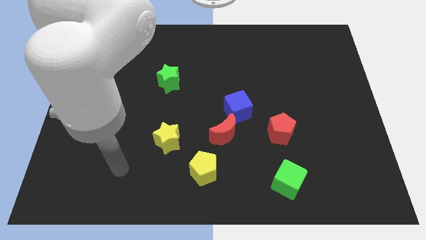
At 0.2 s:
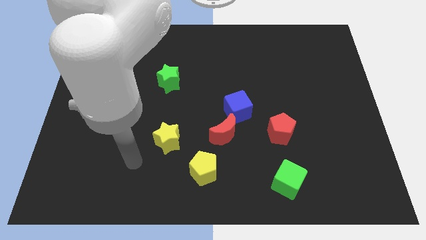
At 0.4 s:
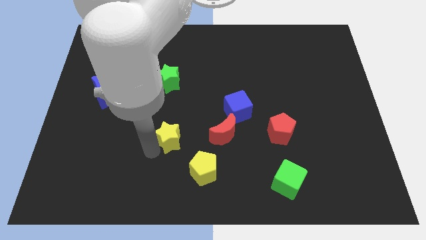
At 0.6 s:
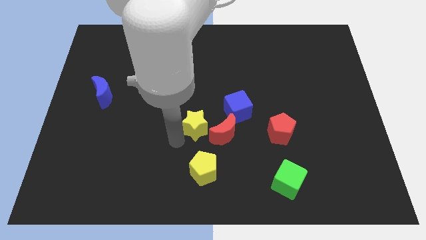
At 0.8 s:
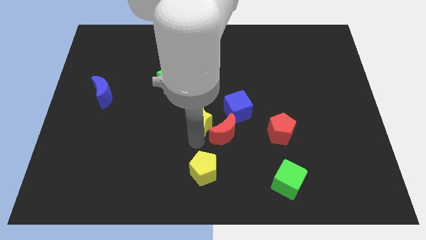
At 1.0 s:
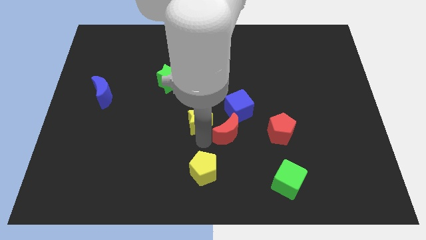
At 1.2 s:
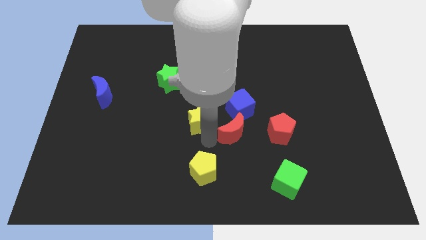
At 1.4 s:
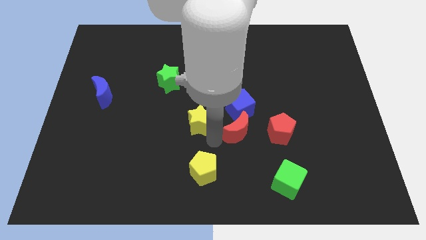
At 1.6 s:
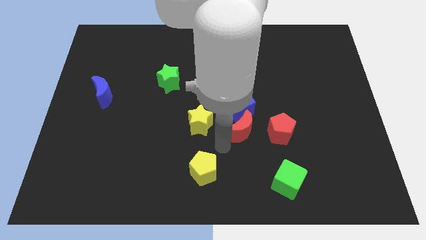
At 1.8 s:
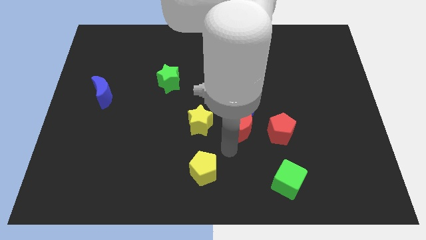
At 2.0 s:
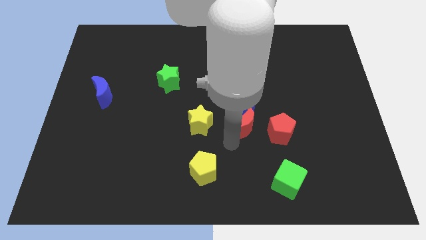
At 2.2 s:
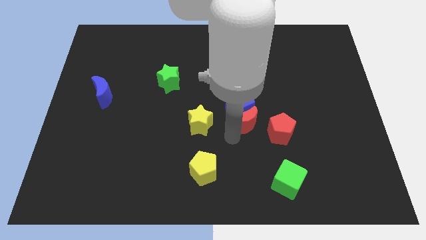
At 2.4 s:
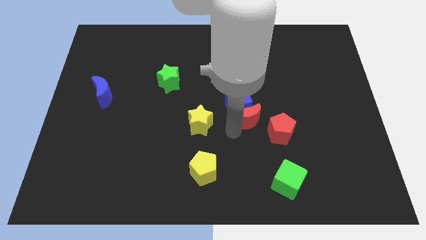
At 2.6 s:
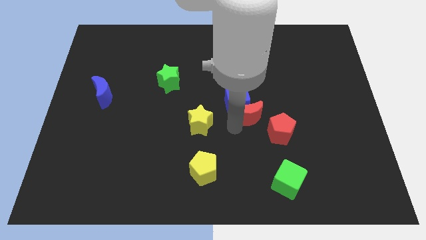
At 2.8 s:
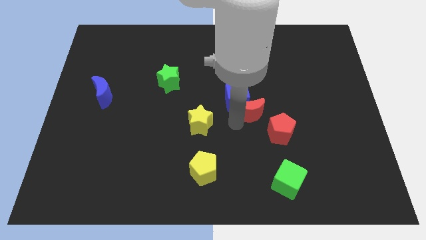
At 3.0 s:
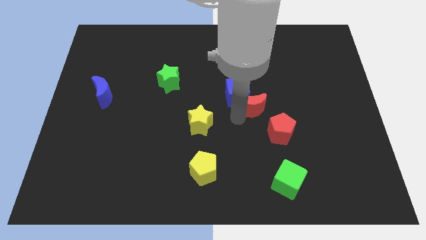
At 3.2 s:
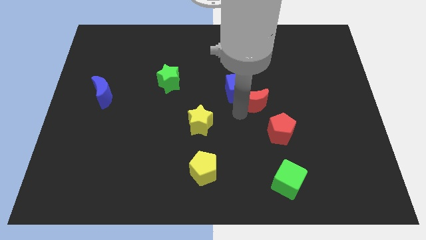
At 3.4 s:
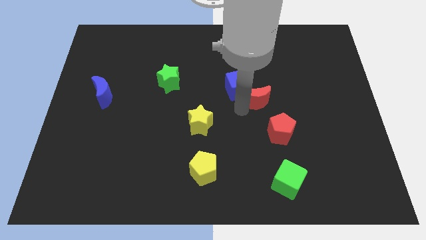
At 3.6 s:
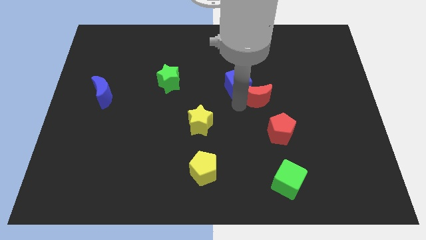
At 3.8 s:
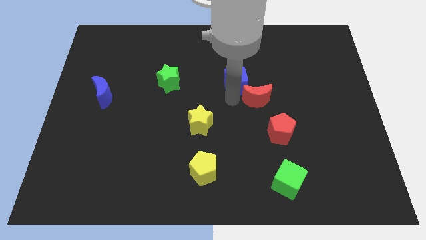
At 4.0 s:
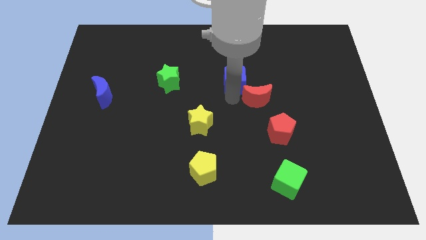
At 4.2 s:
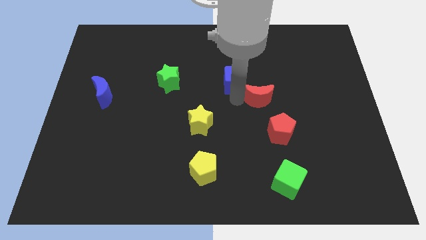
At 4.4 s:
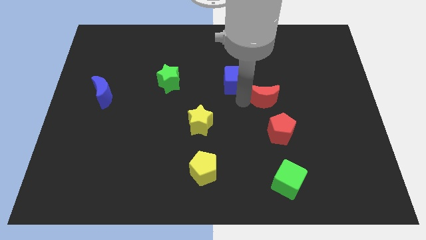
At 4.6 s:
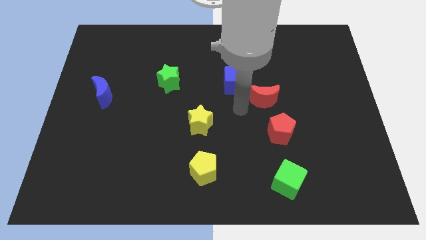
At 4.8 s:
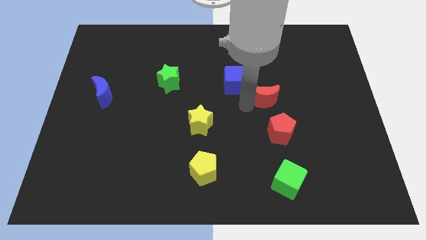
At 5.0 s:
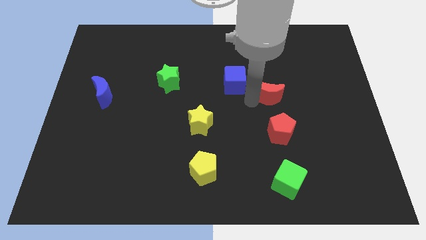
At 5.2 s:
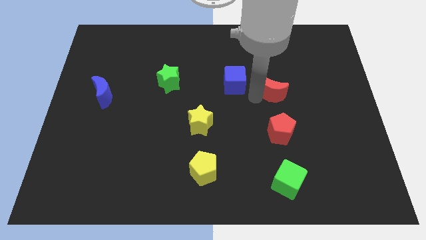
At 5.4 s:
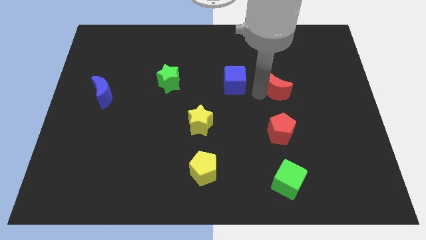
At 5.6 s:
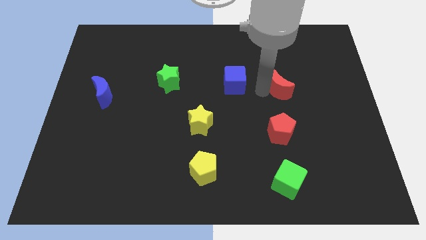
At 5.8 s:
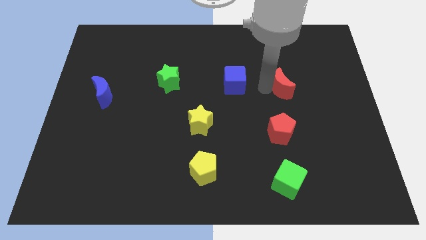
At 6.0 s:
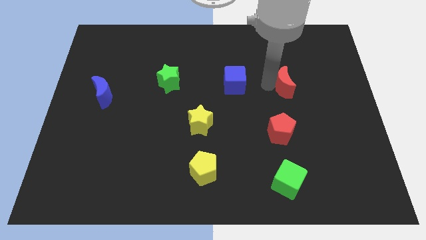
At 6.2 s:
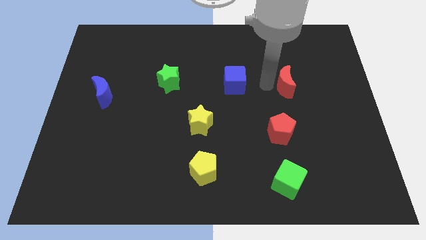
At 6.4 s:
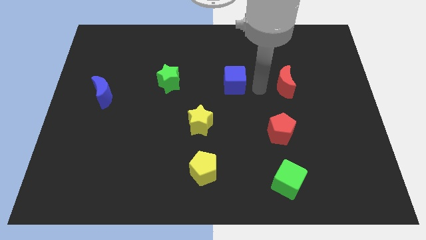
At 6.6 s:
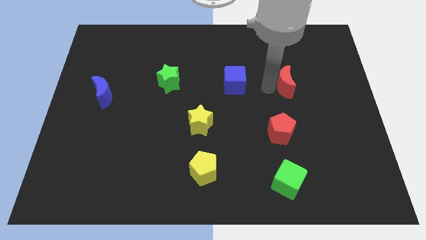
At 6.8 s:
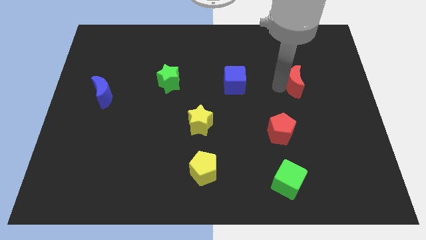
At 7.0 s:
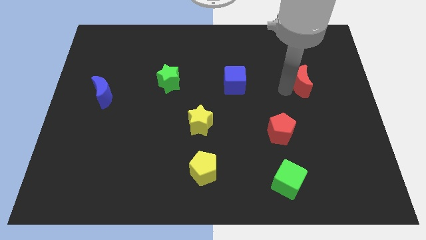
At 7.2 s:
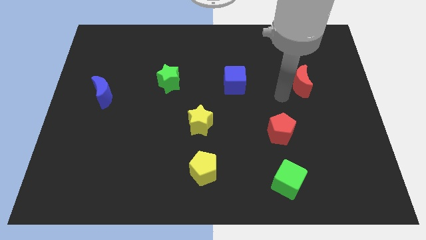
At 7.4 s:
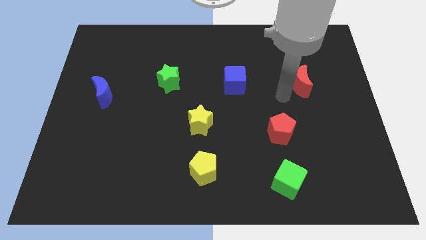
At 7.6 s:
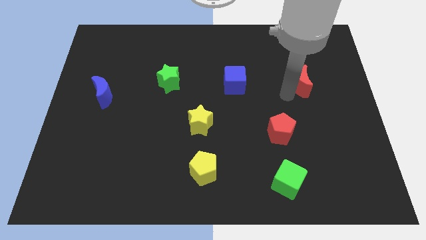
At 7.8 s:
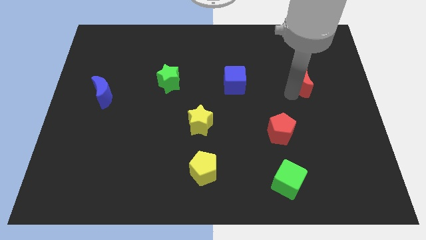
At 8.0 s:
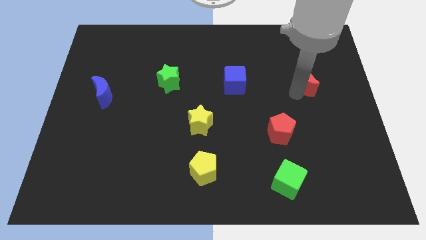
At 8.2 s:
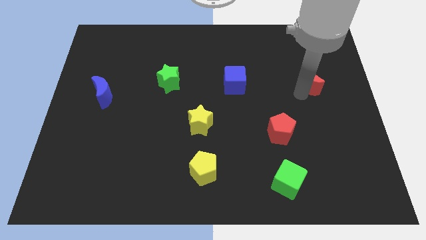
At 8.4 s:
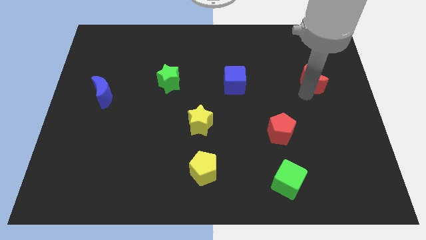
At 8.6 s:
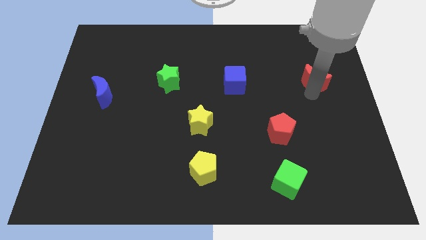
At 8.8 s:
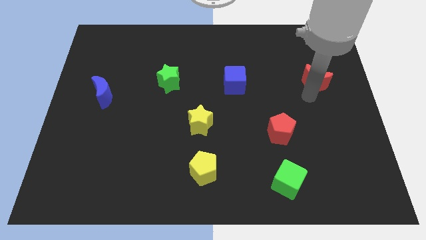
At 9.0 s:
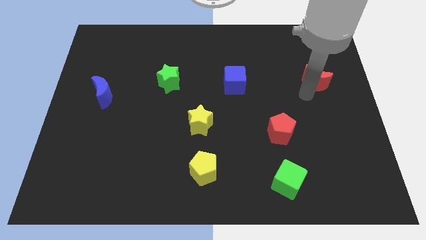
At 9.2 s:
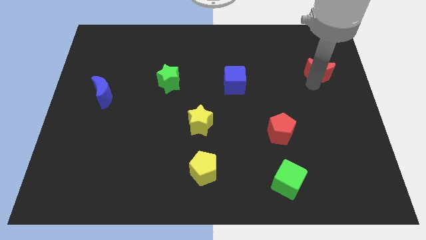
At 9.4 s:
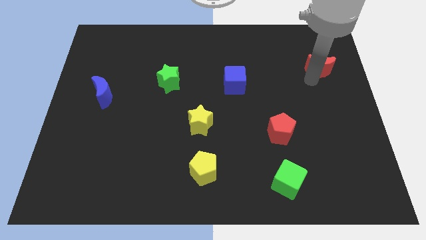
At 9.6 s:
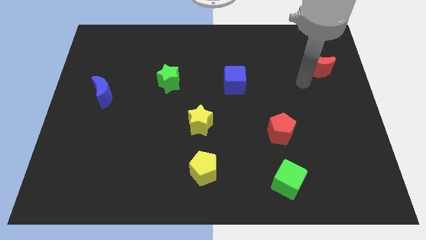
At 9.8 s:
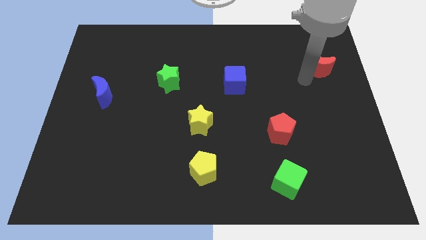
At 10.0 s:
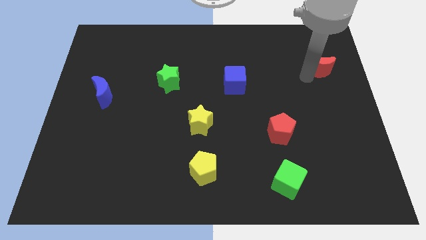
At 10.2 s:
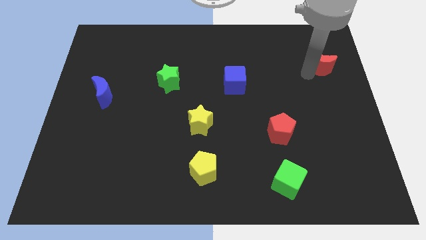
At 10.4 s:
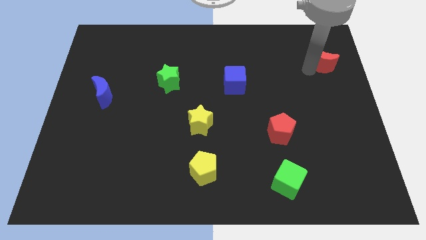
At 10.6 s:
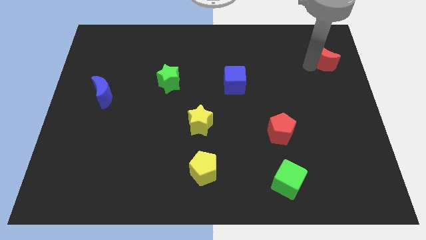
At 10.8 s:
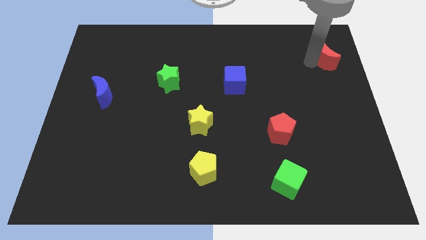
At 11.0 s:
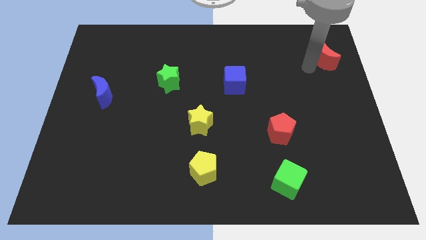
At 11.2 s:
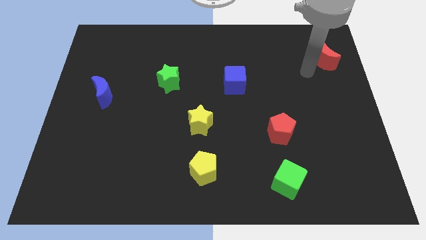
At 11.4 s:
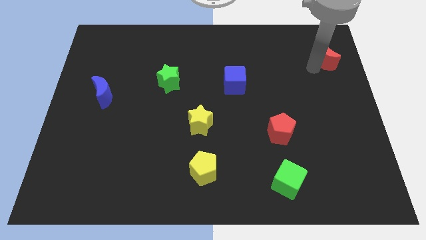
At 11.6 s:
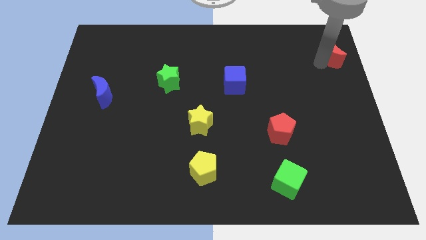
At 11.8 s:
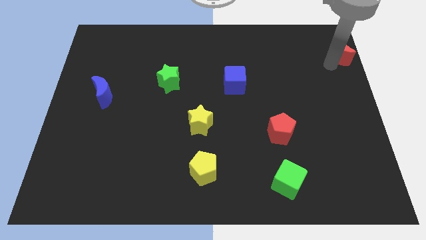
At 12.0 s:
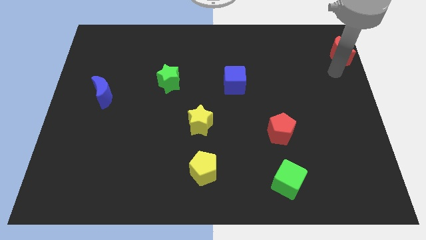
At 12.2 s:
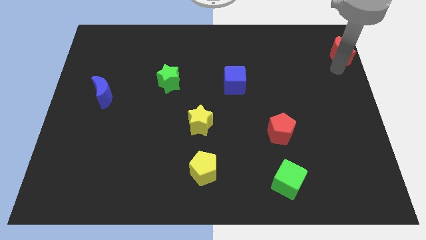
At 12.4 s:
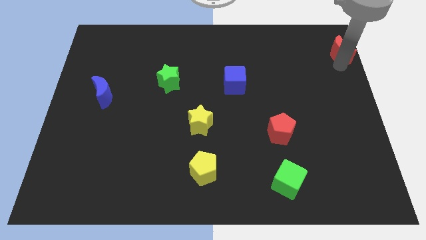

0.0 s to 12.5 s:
push the red moon to the top right corner

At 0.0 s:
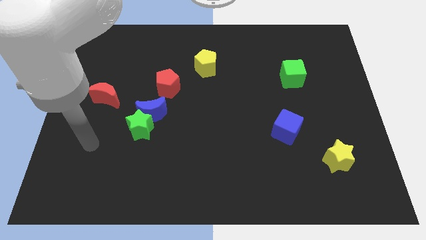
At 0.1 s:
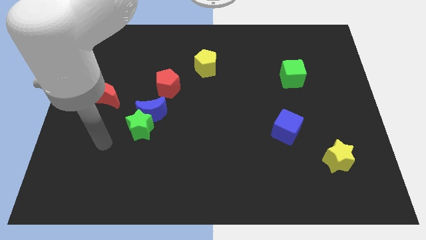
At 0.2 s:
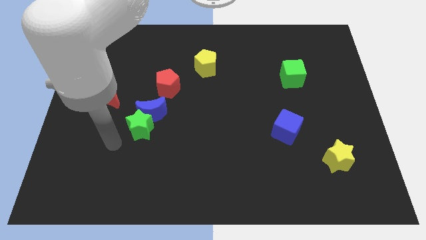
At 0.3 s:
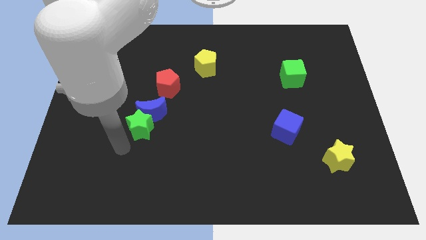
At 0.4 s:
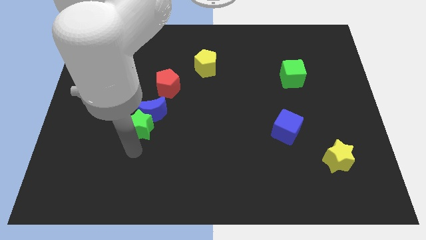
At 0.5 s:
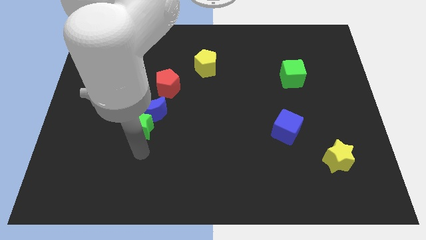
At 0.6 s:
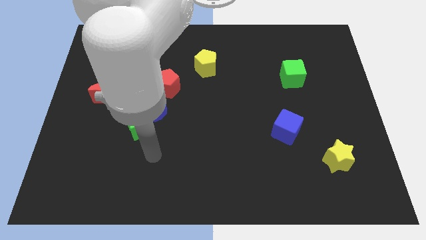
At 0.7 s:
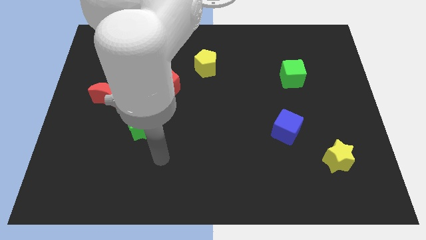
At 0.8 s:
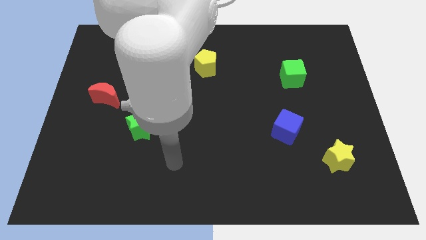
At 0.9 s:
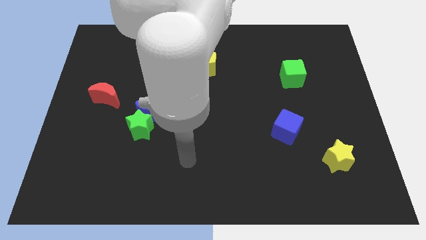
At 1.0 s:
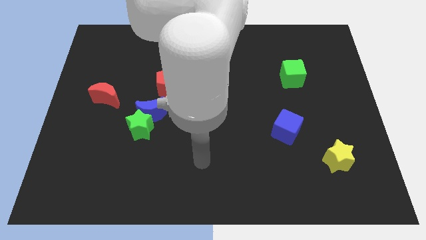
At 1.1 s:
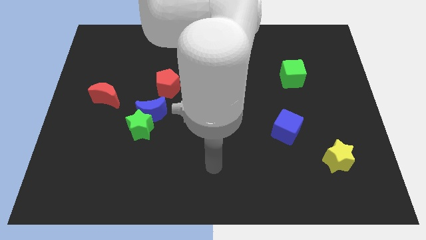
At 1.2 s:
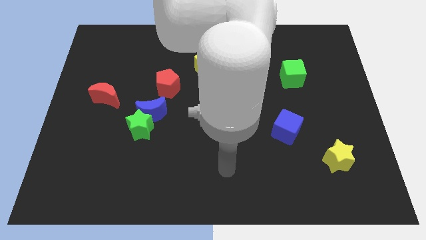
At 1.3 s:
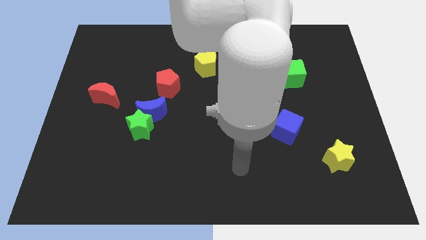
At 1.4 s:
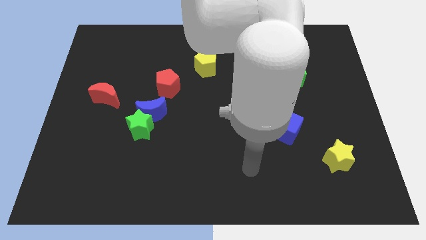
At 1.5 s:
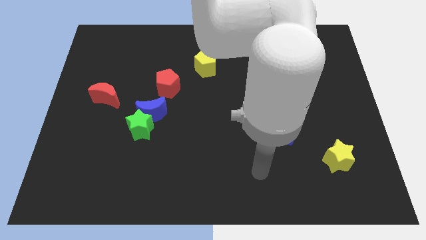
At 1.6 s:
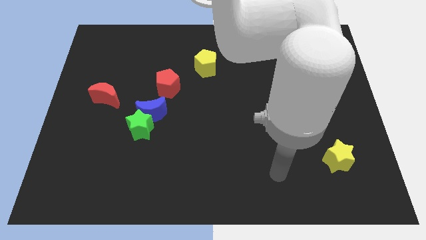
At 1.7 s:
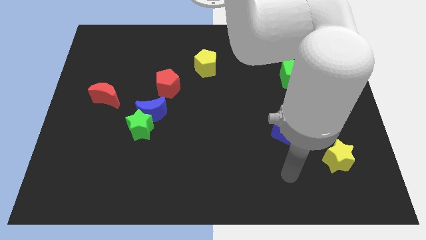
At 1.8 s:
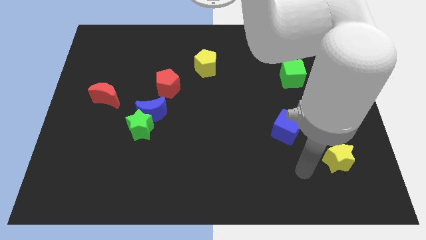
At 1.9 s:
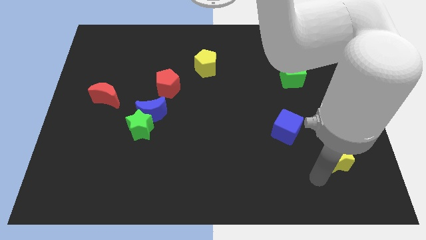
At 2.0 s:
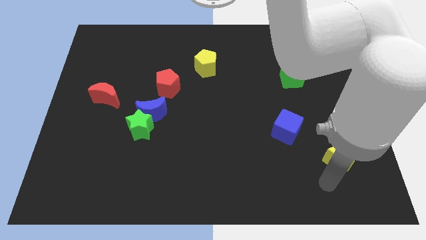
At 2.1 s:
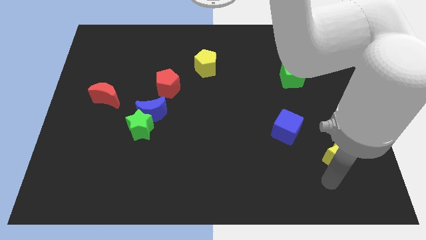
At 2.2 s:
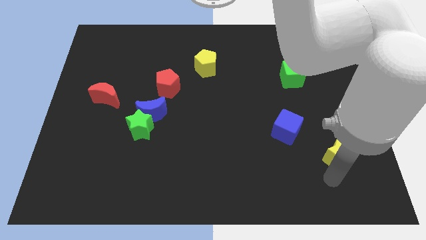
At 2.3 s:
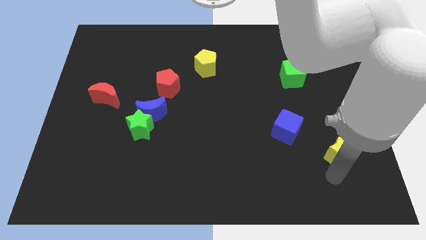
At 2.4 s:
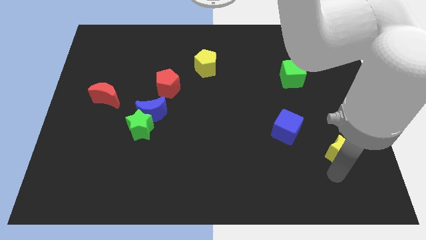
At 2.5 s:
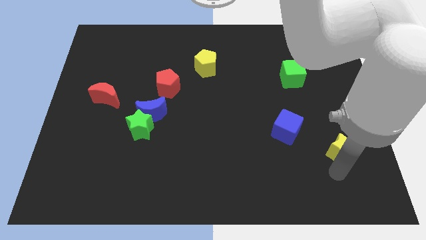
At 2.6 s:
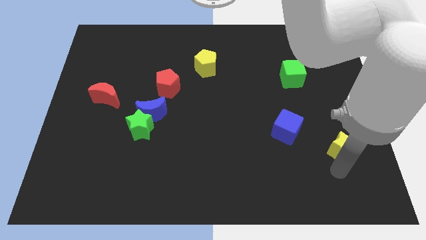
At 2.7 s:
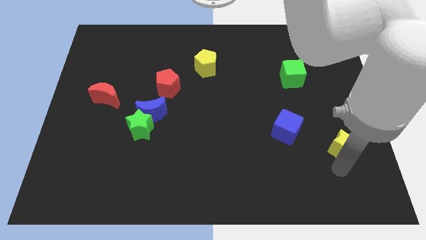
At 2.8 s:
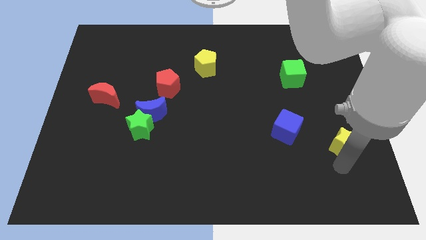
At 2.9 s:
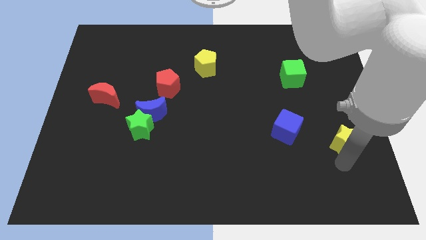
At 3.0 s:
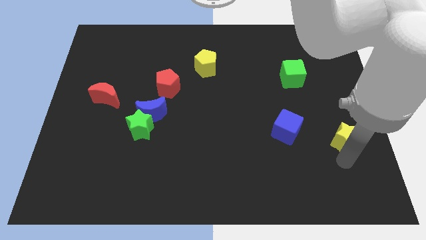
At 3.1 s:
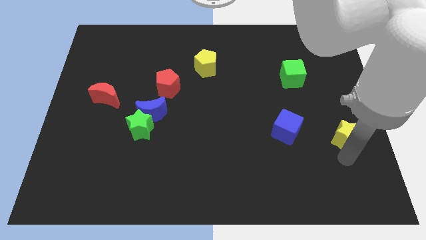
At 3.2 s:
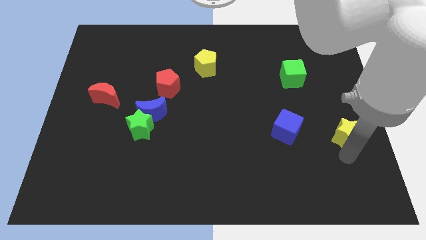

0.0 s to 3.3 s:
move the yellow star to the right side
